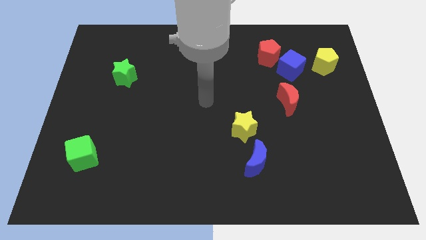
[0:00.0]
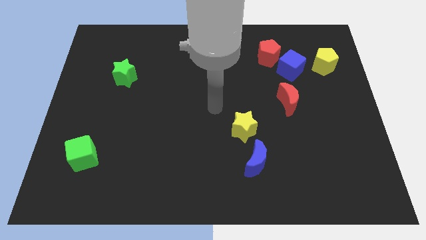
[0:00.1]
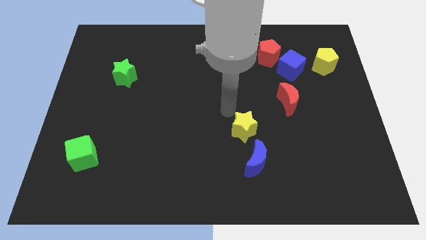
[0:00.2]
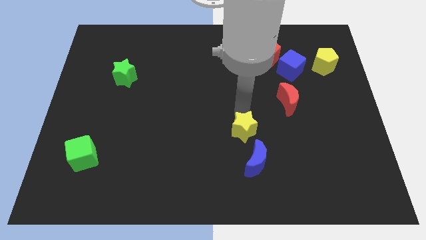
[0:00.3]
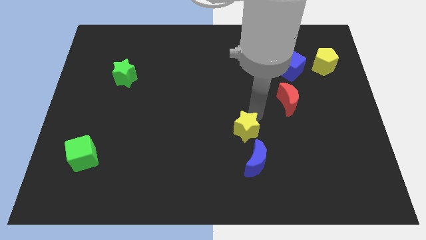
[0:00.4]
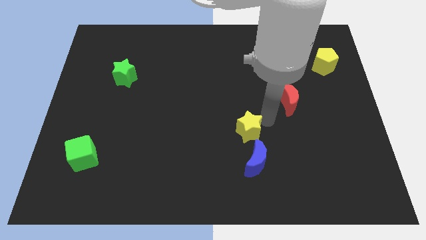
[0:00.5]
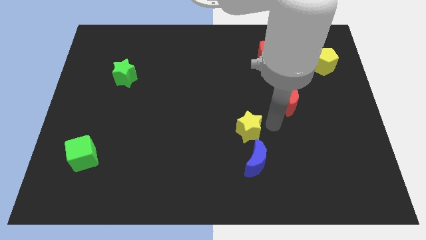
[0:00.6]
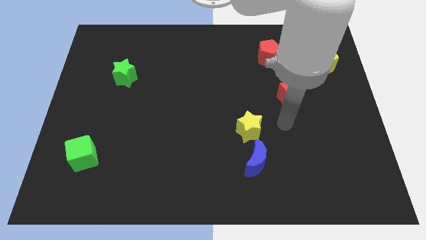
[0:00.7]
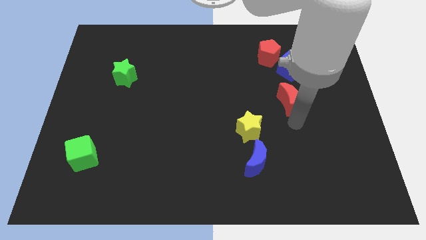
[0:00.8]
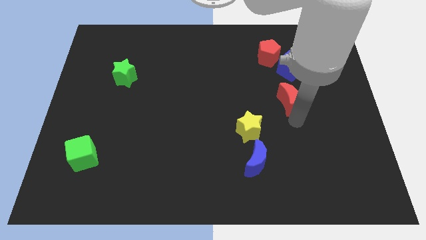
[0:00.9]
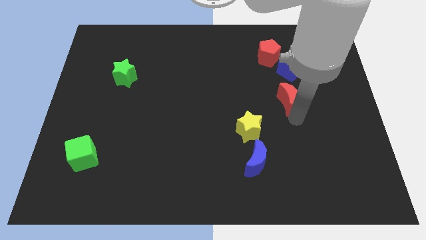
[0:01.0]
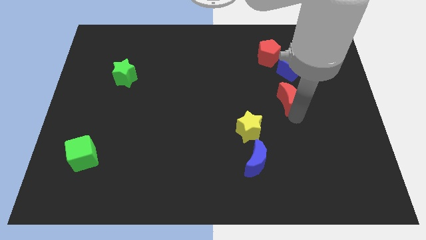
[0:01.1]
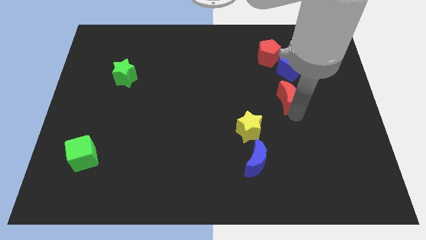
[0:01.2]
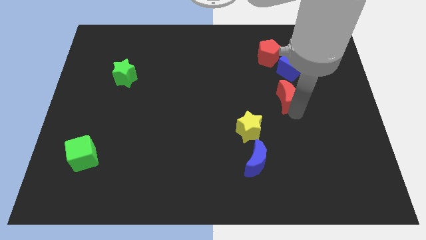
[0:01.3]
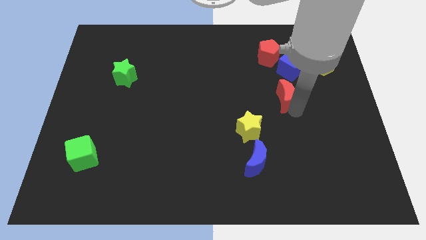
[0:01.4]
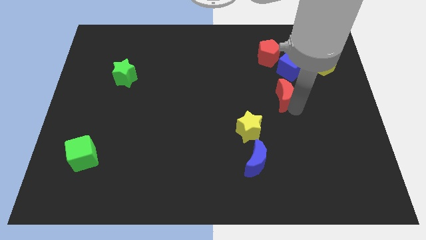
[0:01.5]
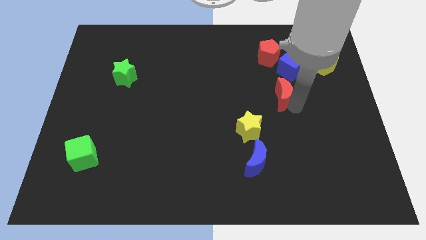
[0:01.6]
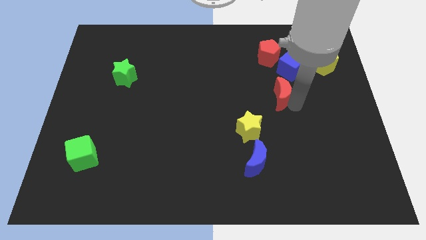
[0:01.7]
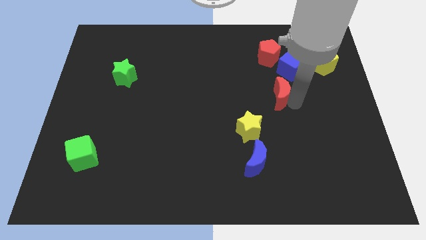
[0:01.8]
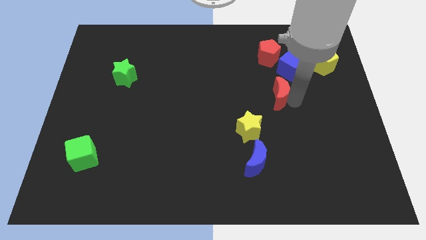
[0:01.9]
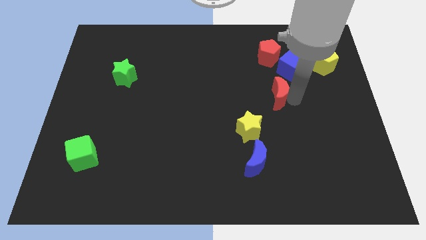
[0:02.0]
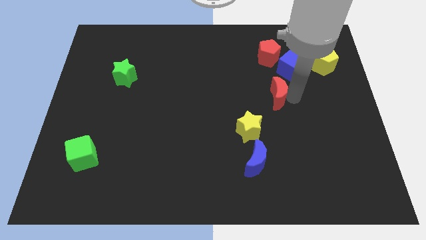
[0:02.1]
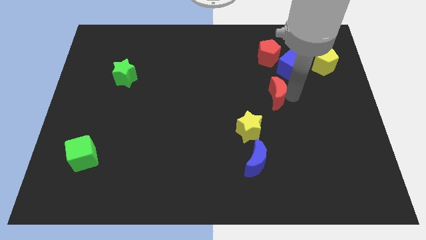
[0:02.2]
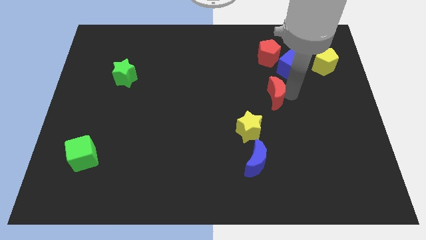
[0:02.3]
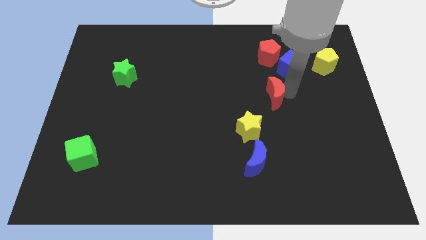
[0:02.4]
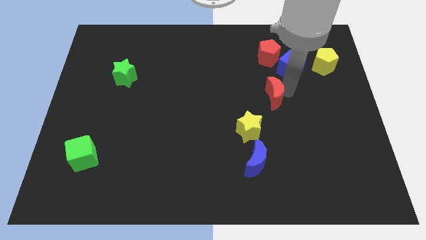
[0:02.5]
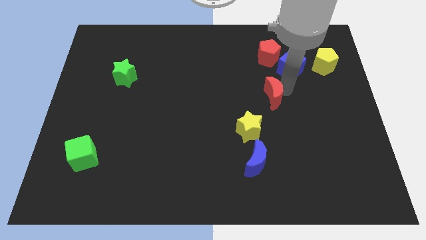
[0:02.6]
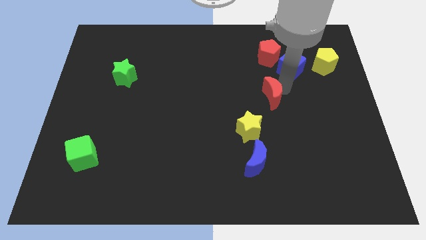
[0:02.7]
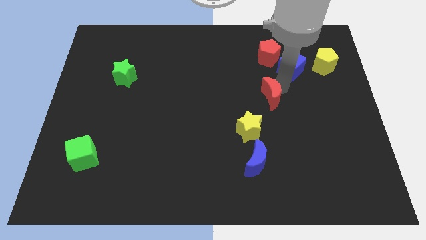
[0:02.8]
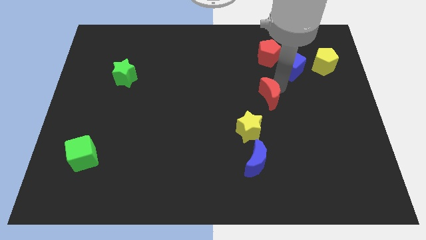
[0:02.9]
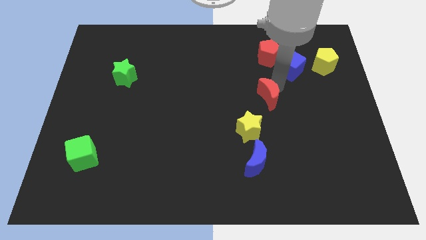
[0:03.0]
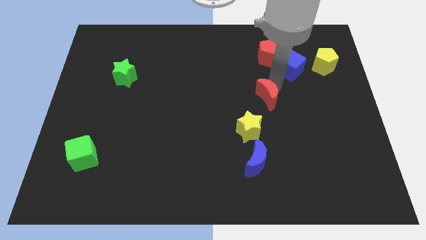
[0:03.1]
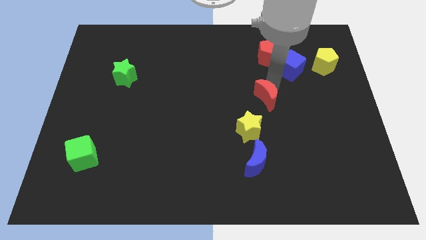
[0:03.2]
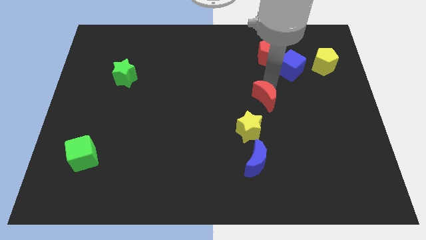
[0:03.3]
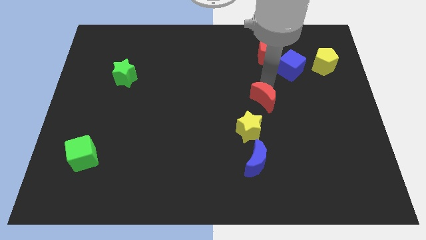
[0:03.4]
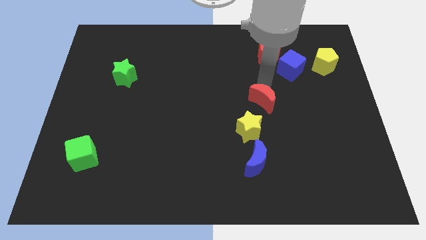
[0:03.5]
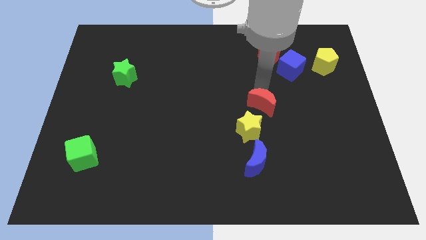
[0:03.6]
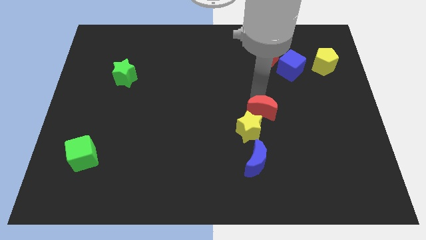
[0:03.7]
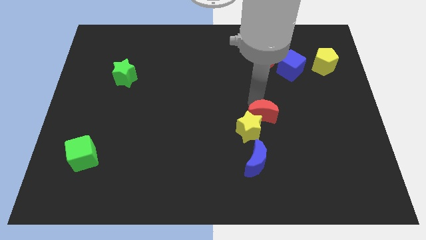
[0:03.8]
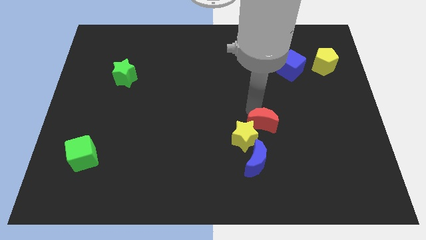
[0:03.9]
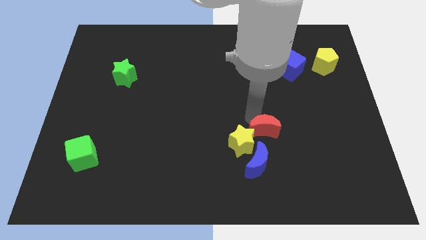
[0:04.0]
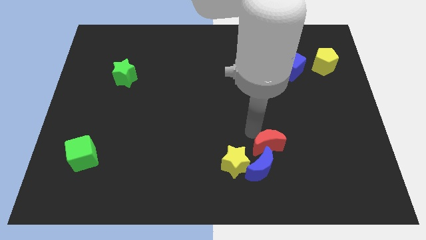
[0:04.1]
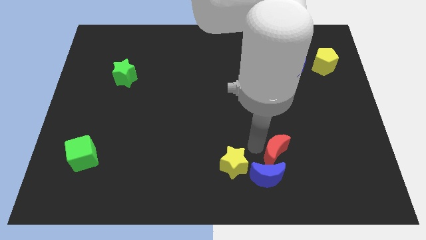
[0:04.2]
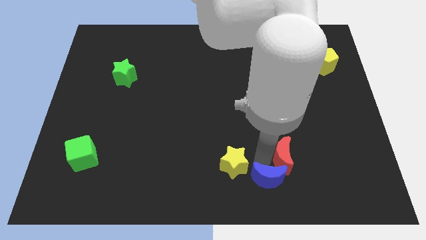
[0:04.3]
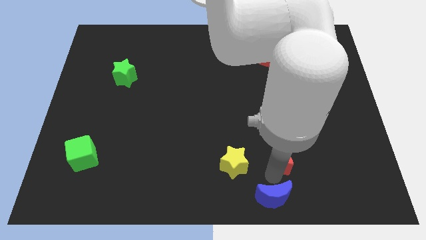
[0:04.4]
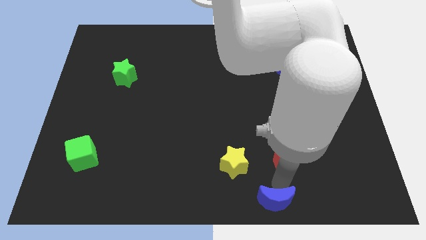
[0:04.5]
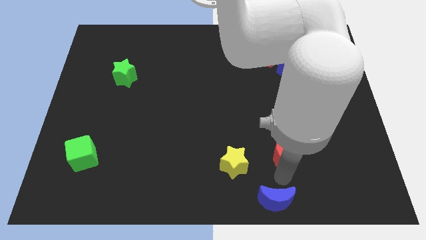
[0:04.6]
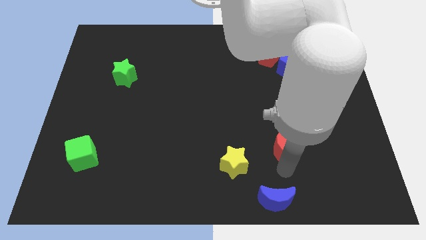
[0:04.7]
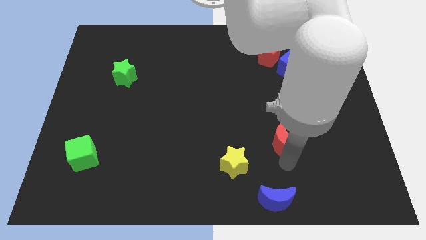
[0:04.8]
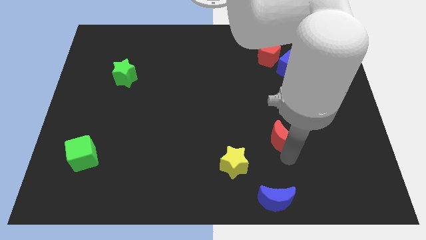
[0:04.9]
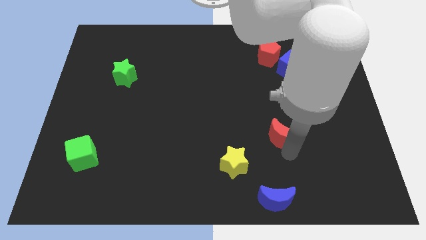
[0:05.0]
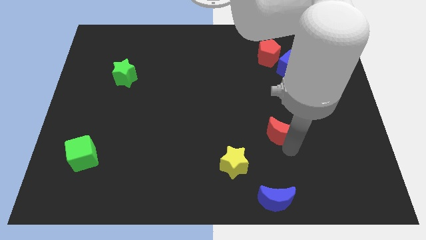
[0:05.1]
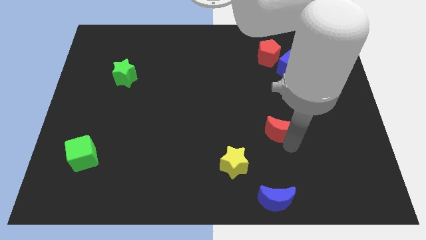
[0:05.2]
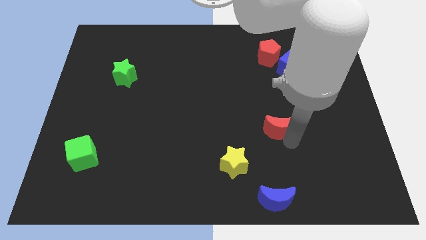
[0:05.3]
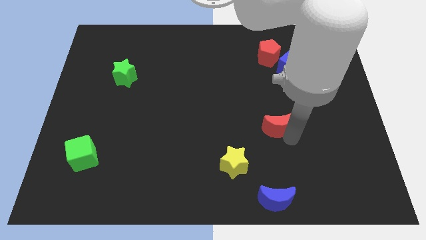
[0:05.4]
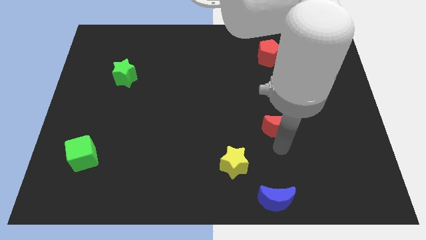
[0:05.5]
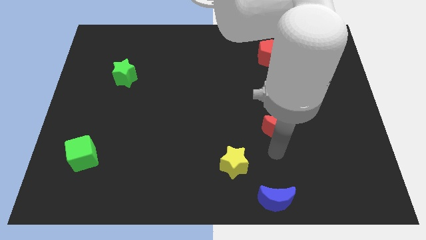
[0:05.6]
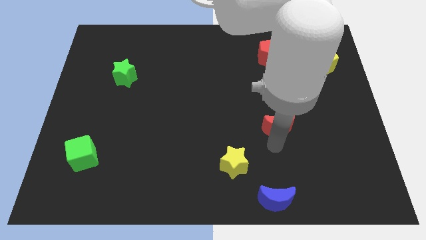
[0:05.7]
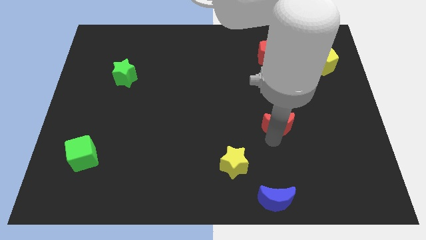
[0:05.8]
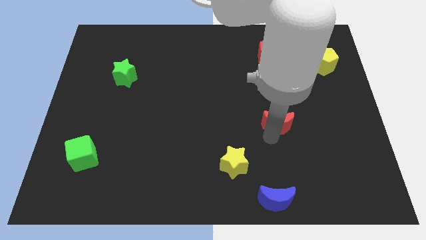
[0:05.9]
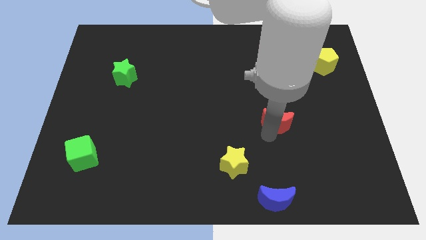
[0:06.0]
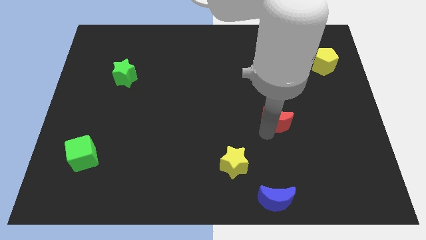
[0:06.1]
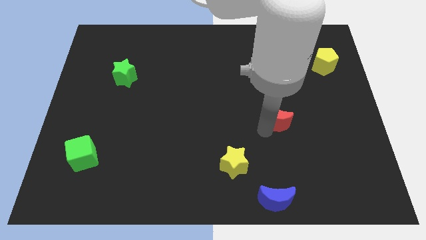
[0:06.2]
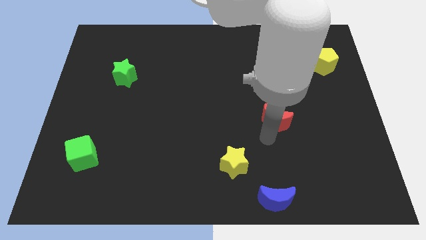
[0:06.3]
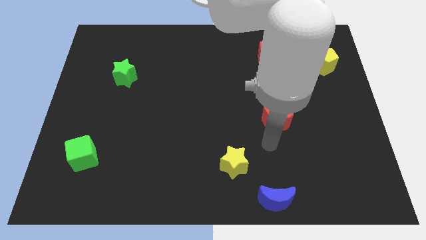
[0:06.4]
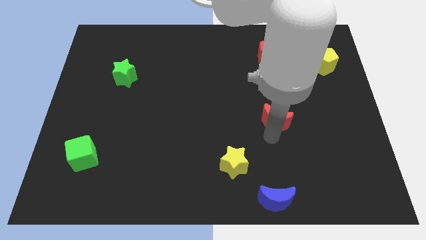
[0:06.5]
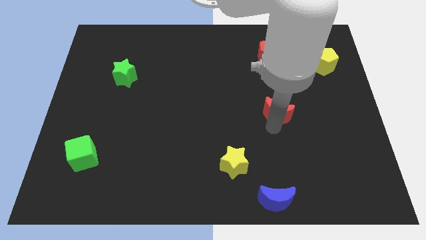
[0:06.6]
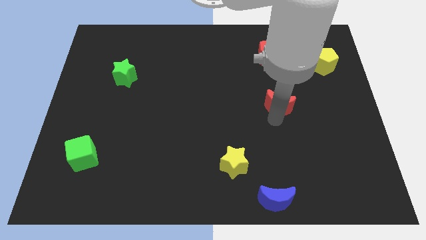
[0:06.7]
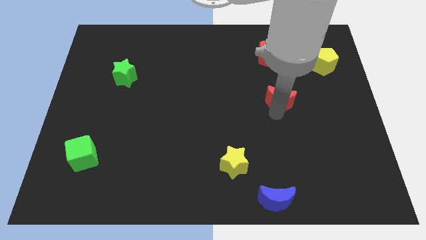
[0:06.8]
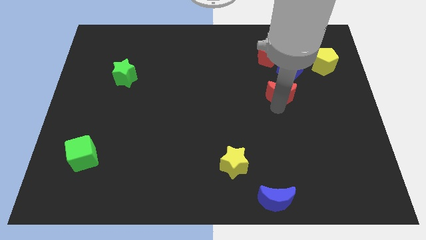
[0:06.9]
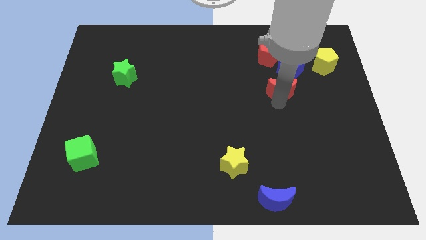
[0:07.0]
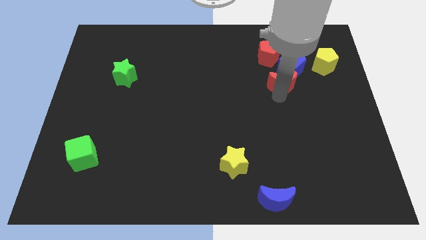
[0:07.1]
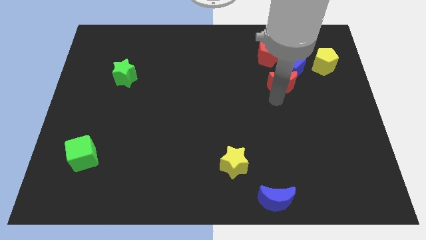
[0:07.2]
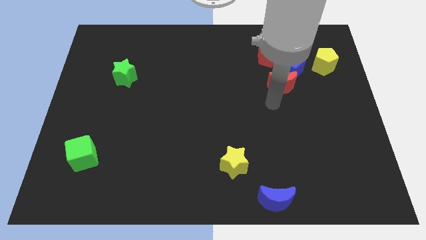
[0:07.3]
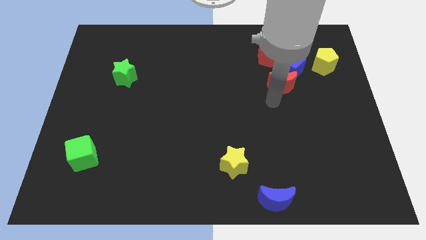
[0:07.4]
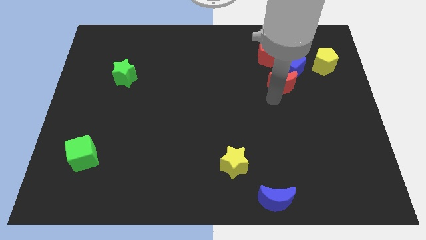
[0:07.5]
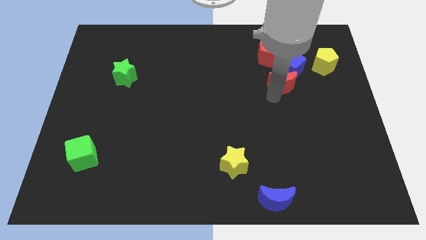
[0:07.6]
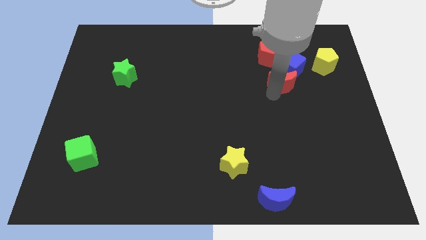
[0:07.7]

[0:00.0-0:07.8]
move the red moon to the blue cube
